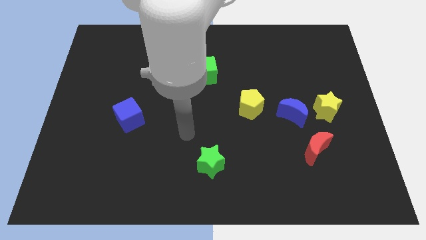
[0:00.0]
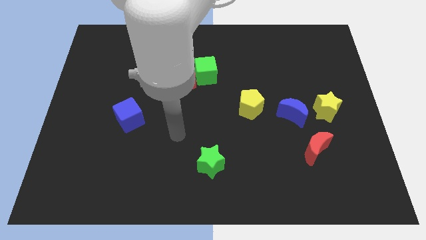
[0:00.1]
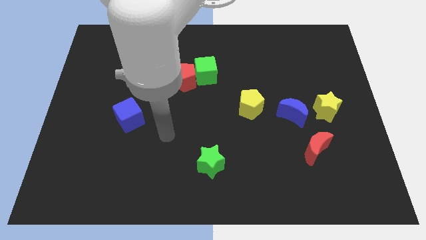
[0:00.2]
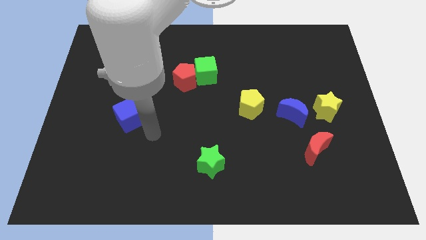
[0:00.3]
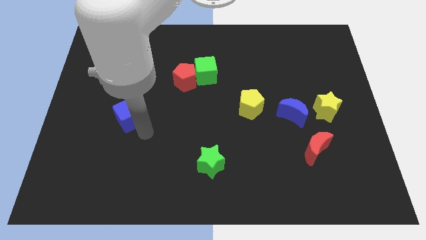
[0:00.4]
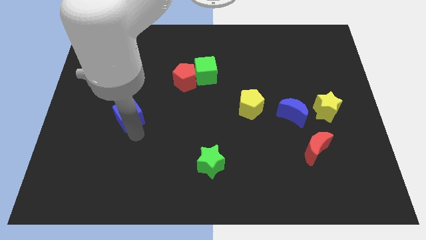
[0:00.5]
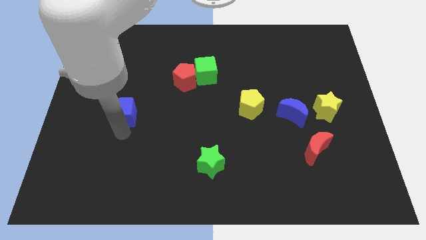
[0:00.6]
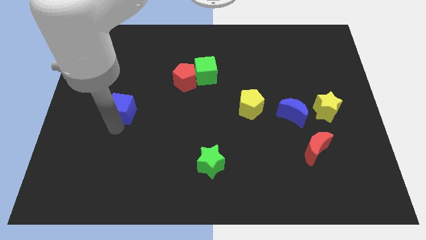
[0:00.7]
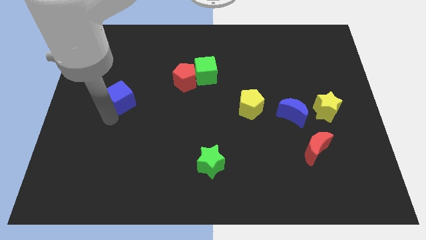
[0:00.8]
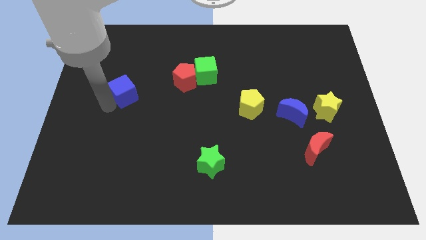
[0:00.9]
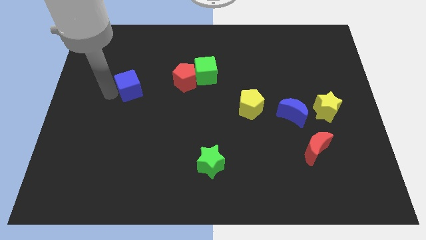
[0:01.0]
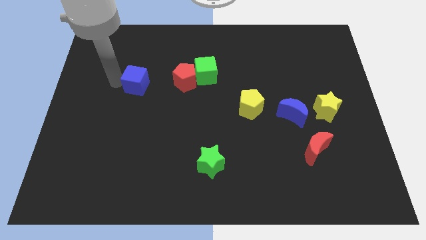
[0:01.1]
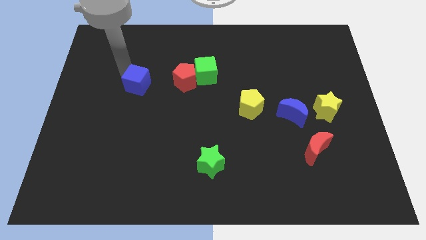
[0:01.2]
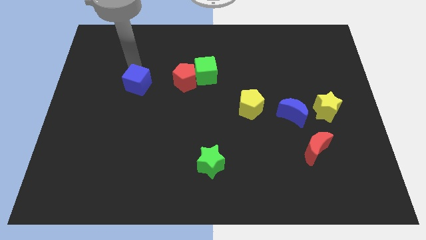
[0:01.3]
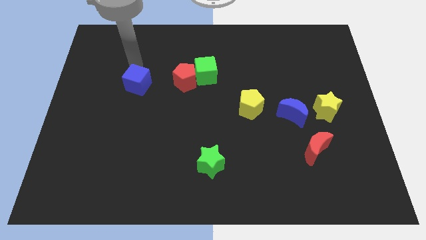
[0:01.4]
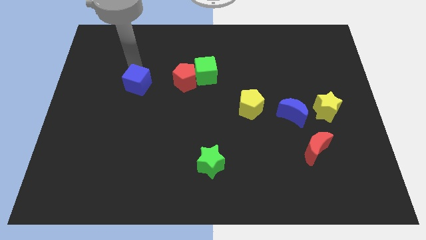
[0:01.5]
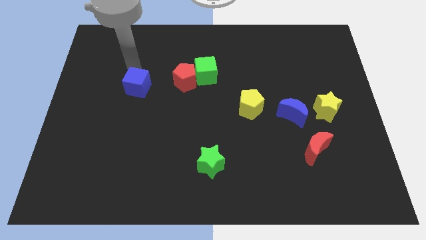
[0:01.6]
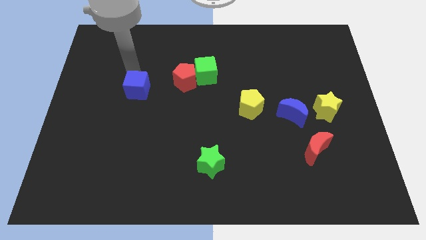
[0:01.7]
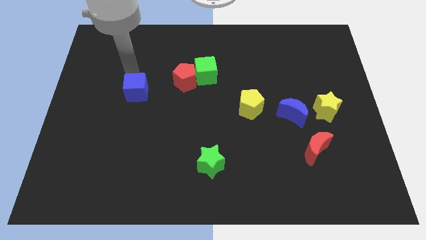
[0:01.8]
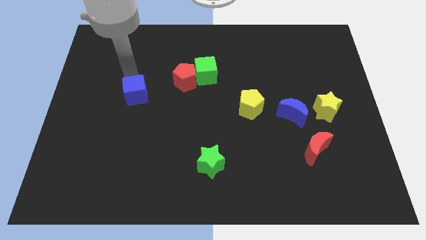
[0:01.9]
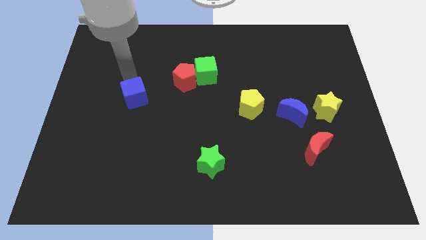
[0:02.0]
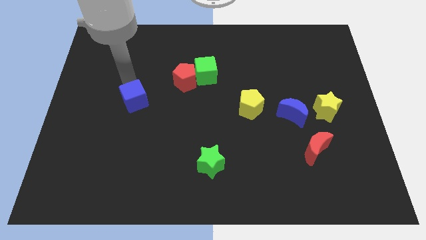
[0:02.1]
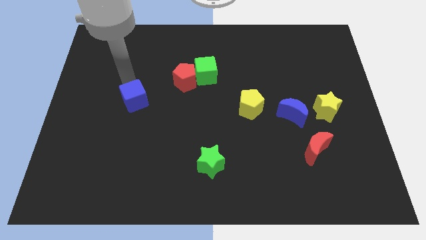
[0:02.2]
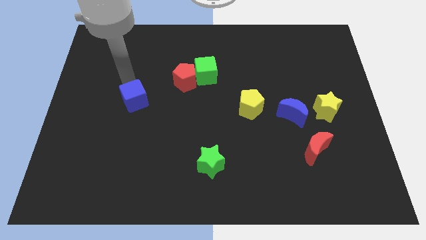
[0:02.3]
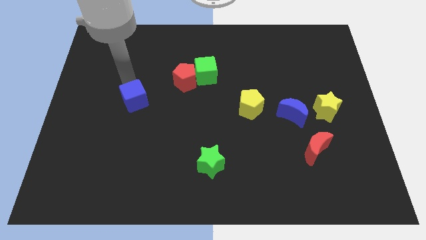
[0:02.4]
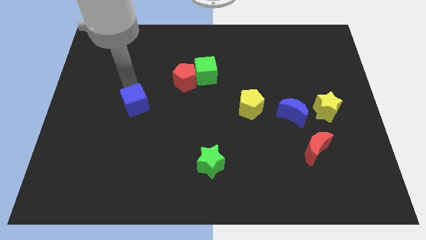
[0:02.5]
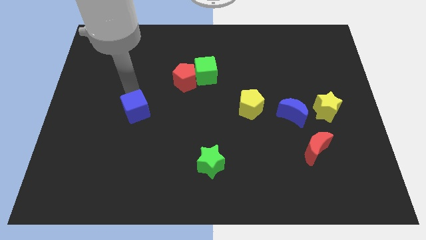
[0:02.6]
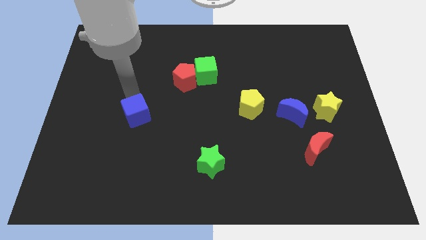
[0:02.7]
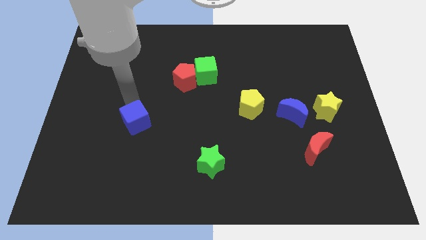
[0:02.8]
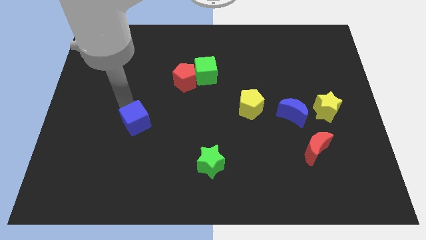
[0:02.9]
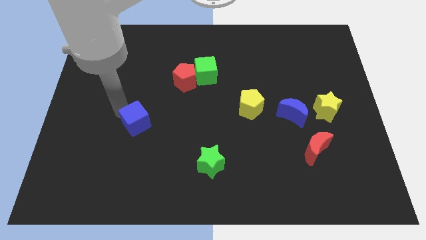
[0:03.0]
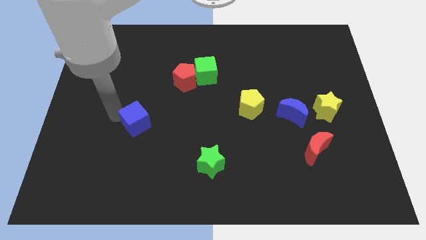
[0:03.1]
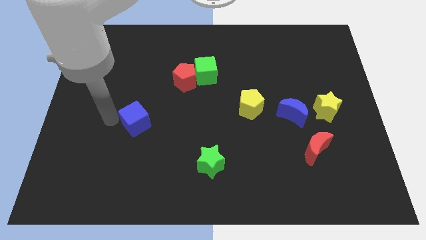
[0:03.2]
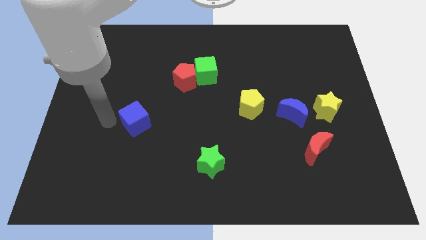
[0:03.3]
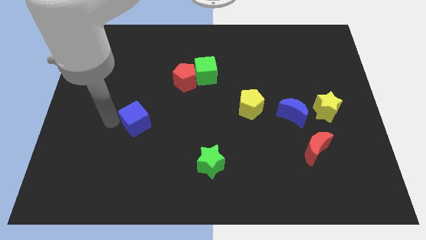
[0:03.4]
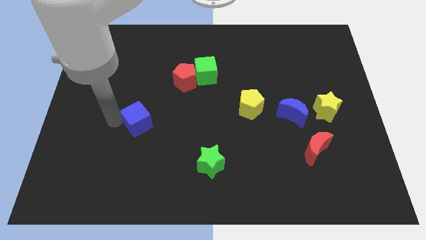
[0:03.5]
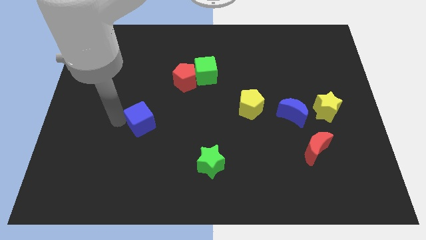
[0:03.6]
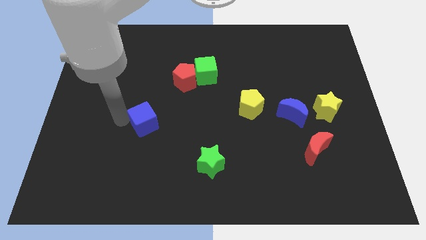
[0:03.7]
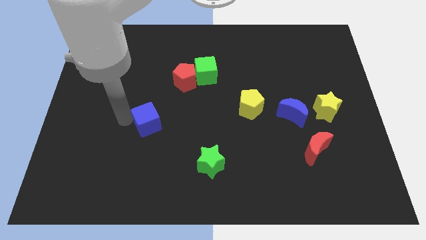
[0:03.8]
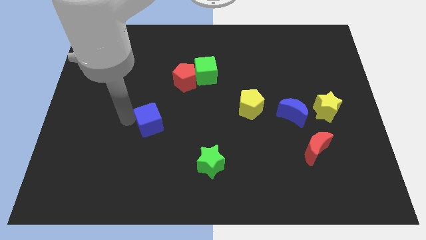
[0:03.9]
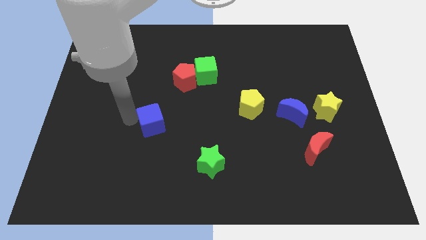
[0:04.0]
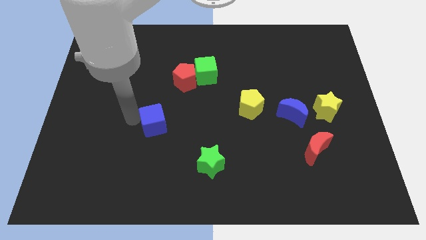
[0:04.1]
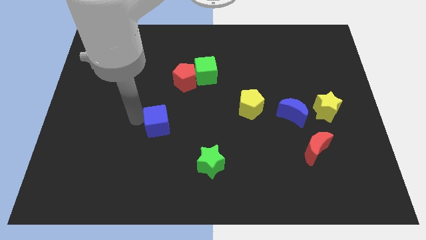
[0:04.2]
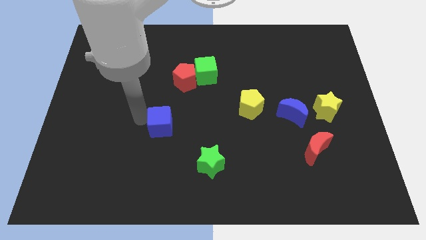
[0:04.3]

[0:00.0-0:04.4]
slide the blue cube a little bit right

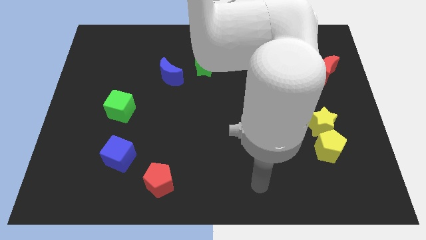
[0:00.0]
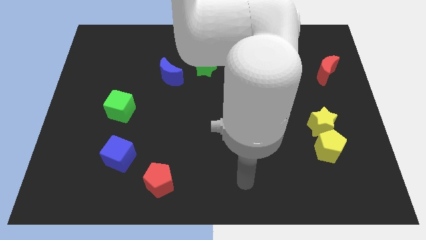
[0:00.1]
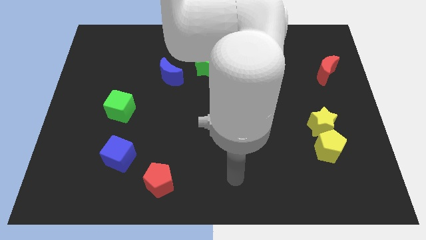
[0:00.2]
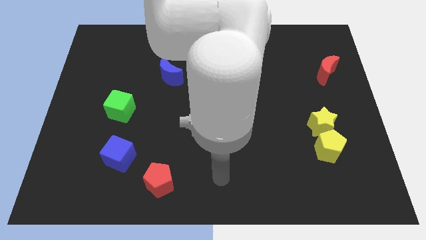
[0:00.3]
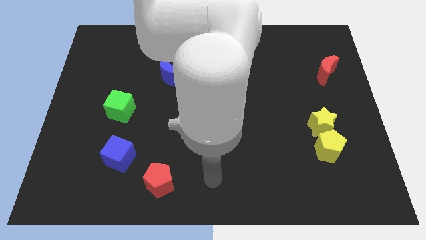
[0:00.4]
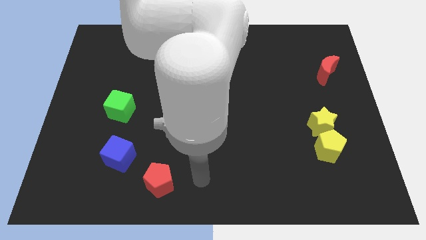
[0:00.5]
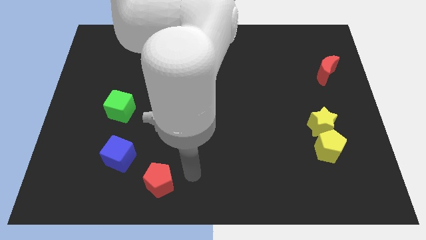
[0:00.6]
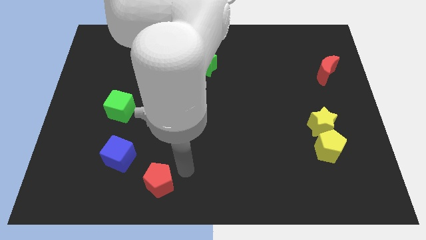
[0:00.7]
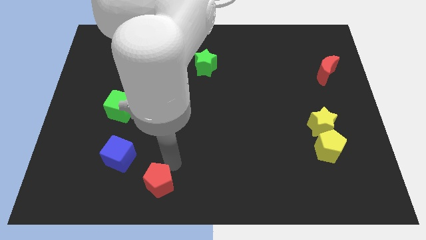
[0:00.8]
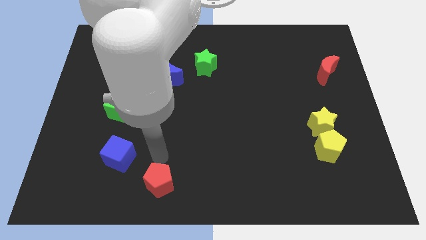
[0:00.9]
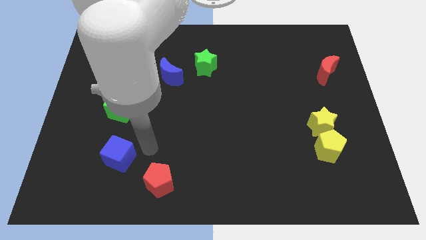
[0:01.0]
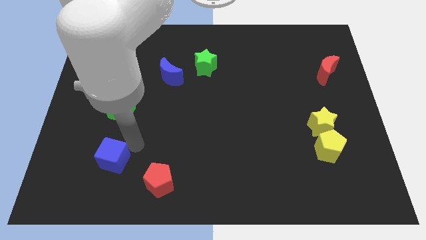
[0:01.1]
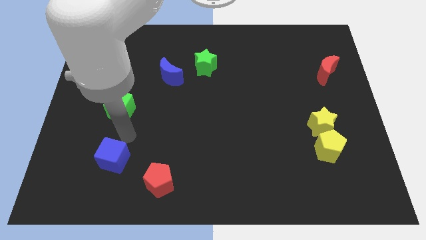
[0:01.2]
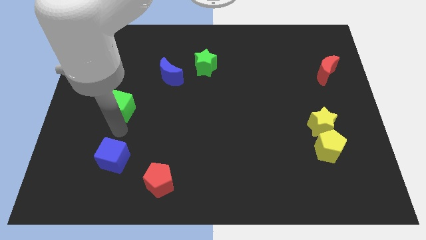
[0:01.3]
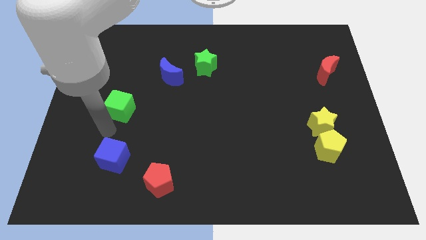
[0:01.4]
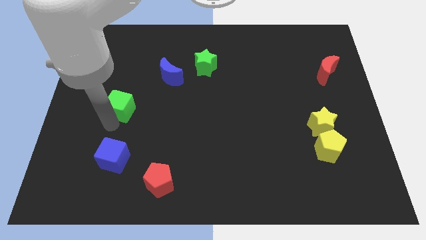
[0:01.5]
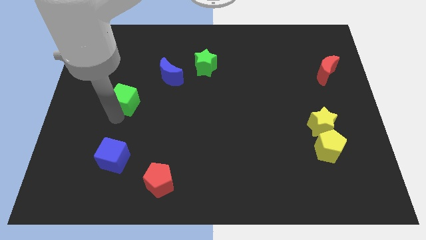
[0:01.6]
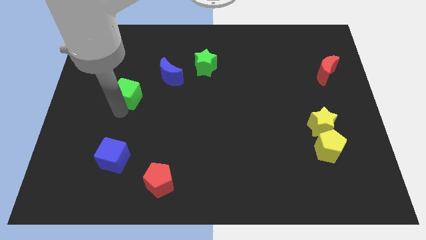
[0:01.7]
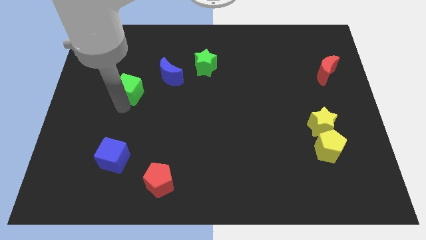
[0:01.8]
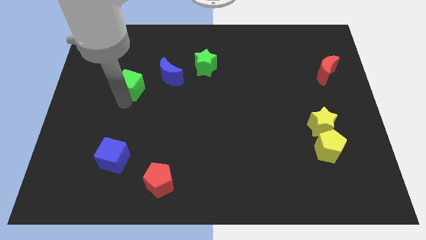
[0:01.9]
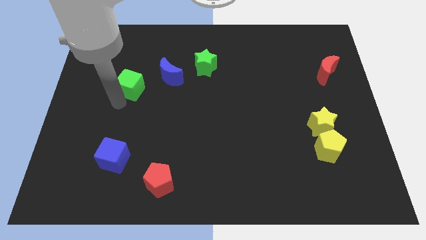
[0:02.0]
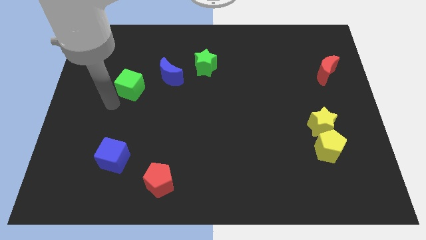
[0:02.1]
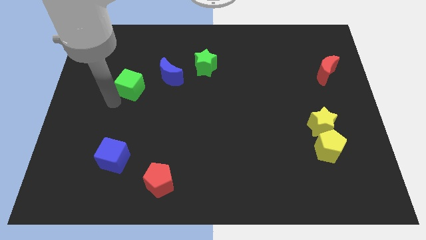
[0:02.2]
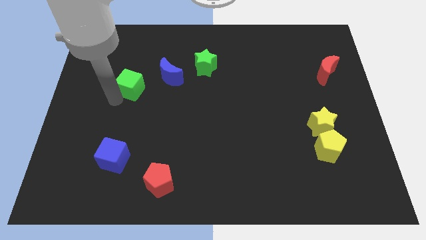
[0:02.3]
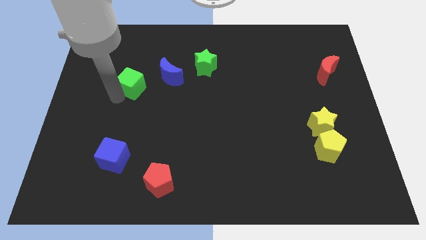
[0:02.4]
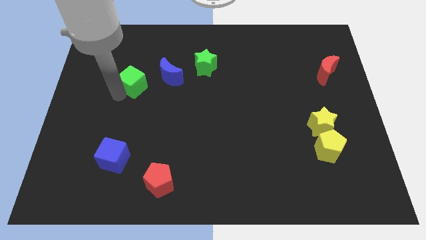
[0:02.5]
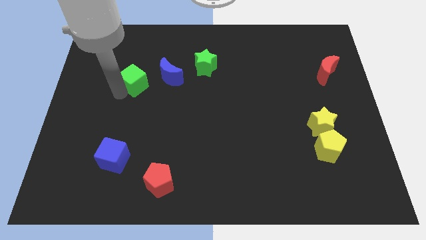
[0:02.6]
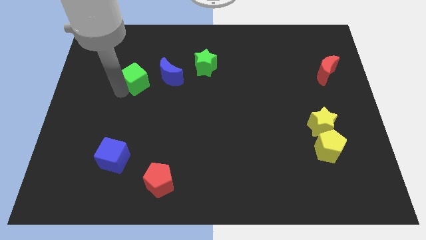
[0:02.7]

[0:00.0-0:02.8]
move the green cube up and to the right somewhat

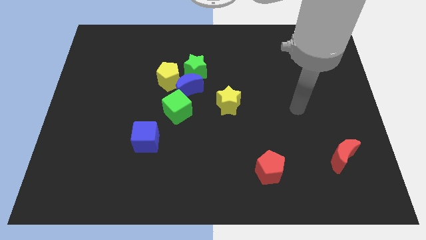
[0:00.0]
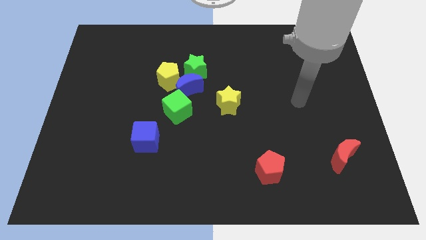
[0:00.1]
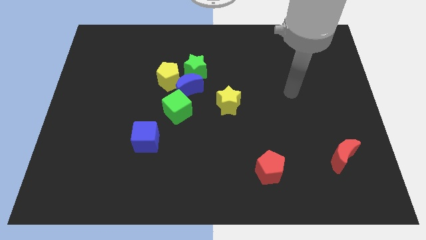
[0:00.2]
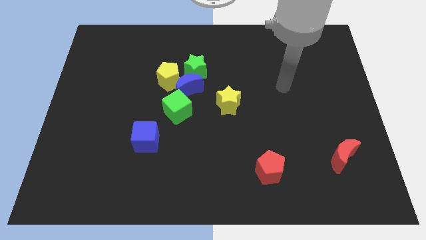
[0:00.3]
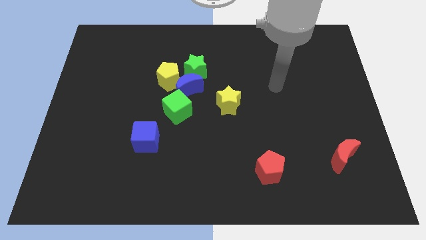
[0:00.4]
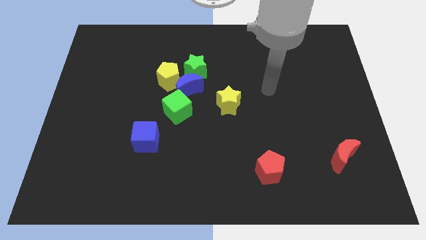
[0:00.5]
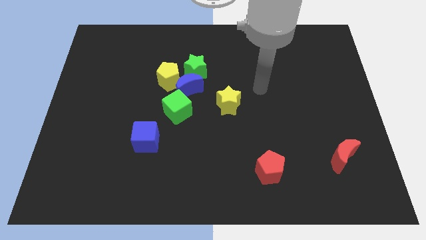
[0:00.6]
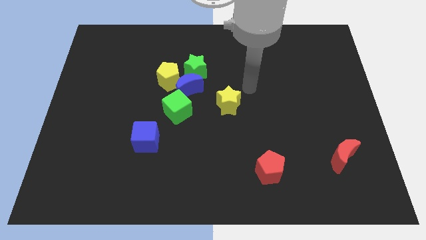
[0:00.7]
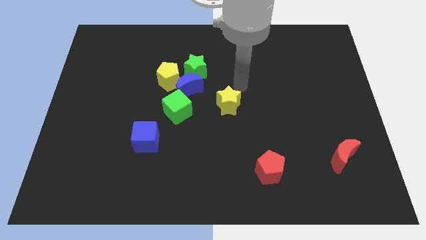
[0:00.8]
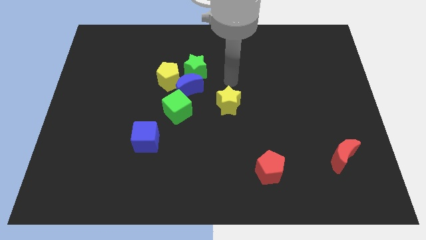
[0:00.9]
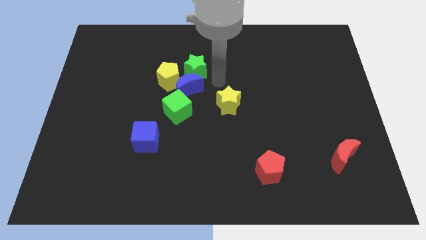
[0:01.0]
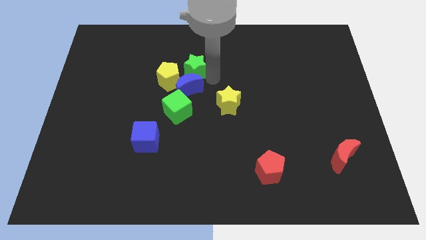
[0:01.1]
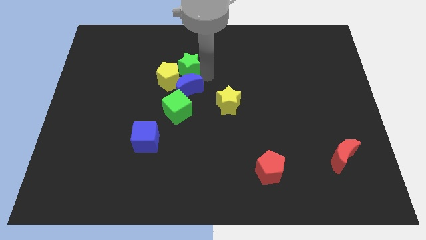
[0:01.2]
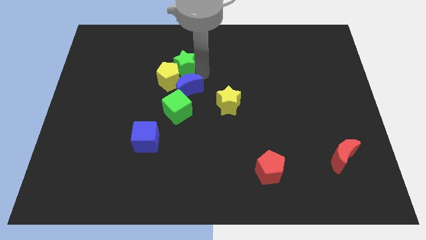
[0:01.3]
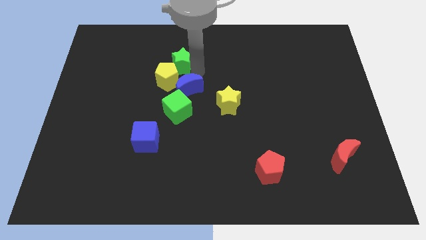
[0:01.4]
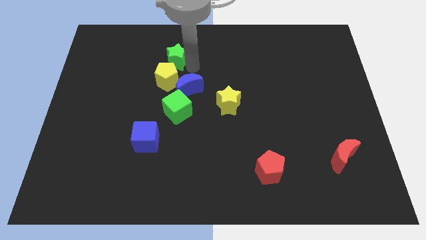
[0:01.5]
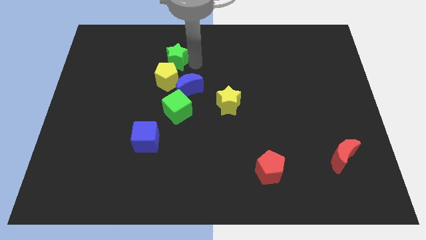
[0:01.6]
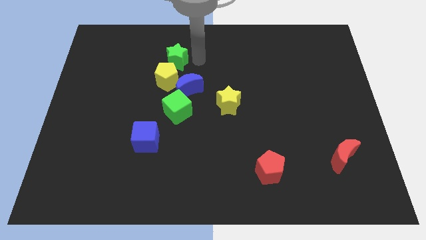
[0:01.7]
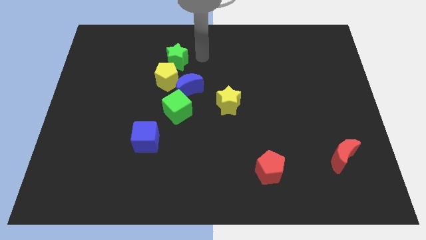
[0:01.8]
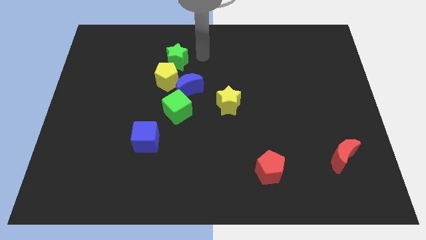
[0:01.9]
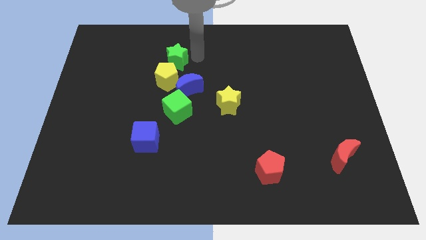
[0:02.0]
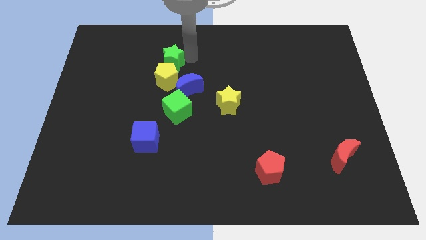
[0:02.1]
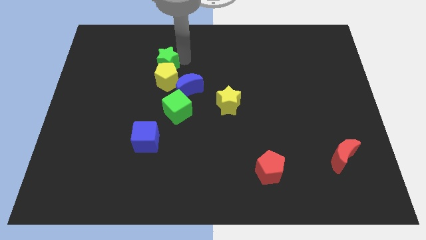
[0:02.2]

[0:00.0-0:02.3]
slightly push the green star to the left
